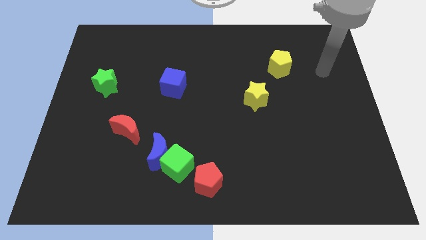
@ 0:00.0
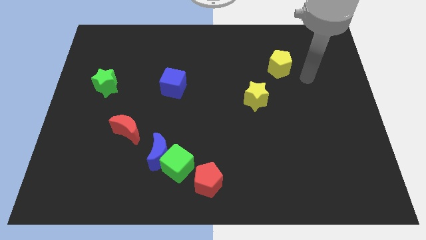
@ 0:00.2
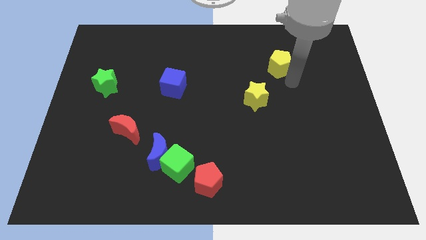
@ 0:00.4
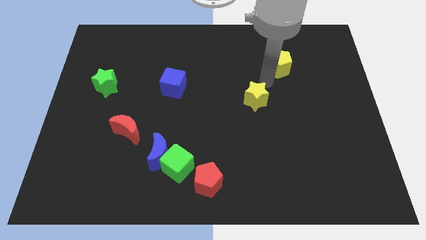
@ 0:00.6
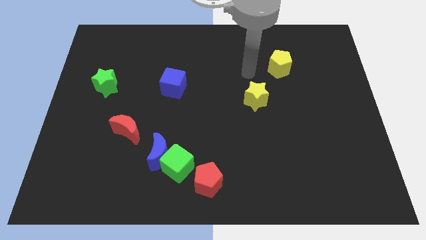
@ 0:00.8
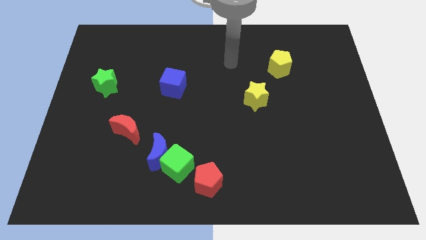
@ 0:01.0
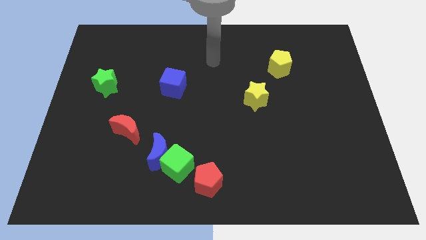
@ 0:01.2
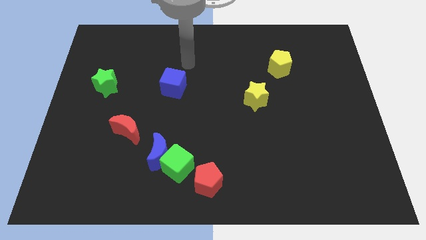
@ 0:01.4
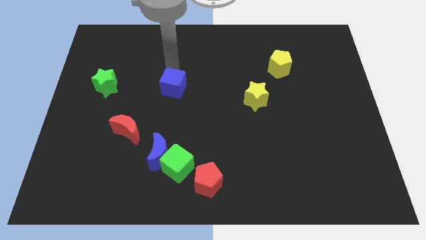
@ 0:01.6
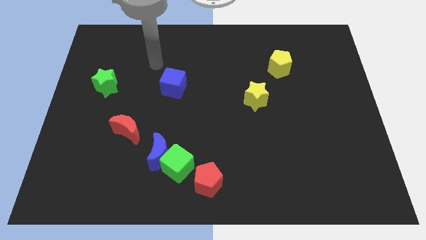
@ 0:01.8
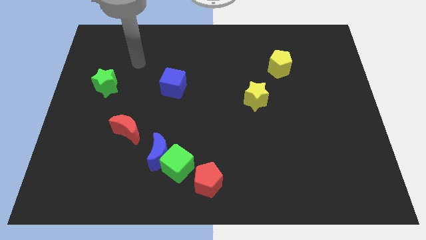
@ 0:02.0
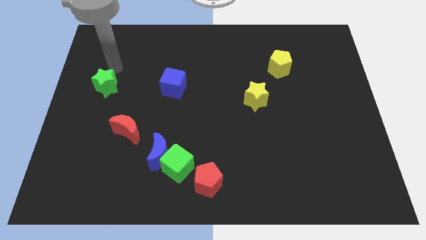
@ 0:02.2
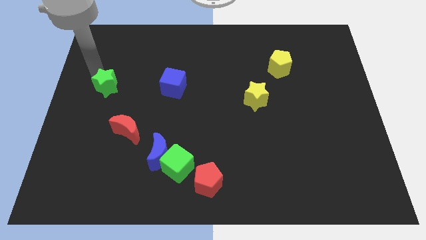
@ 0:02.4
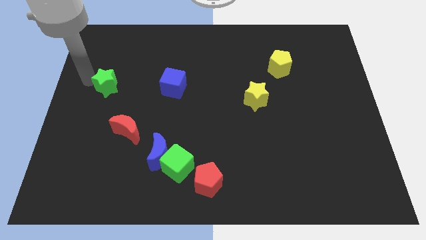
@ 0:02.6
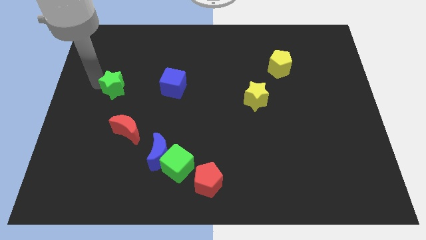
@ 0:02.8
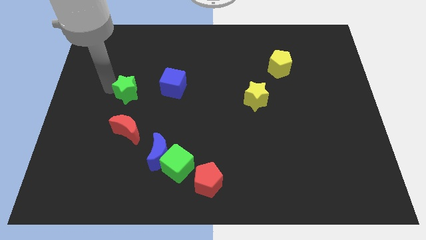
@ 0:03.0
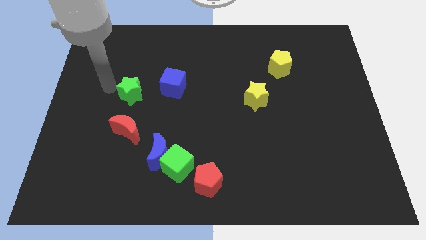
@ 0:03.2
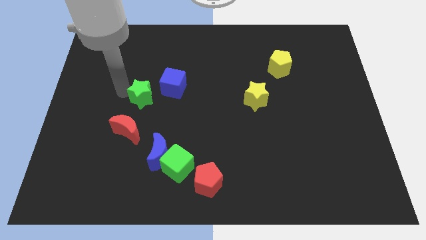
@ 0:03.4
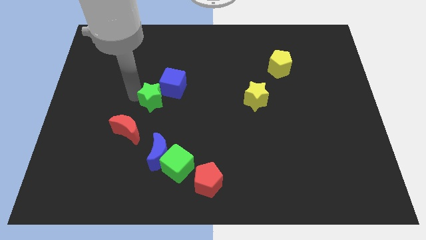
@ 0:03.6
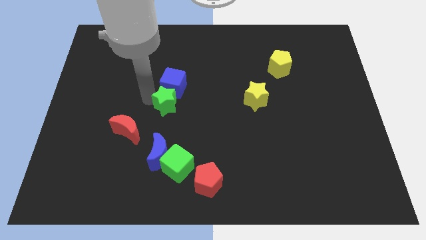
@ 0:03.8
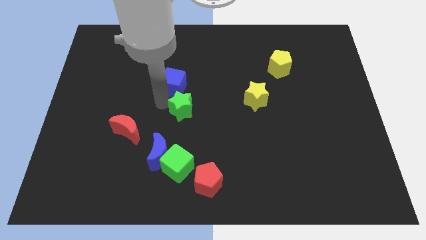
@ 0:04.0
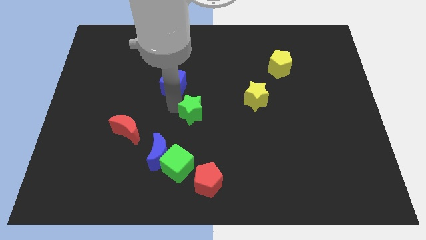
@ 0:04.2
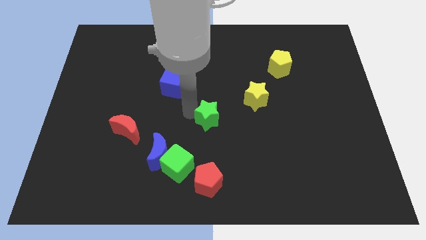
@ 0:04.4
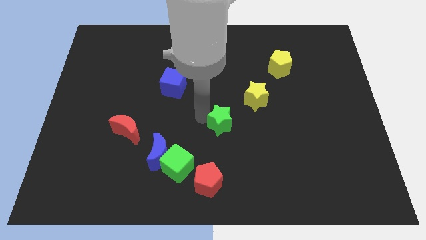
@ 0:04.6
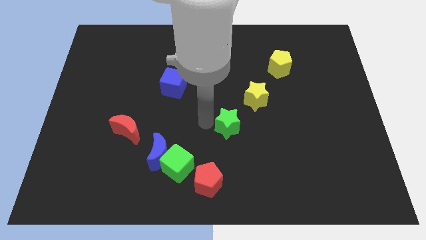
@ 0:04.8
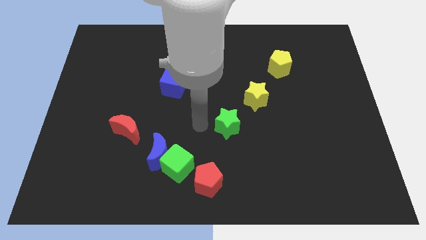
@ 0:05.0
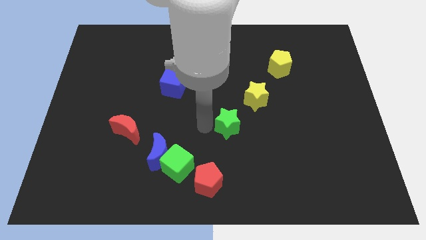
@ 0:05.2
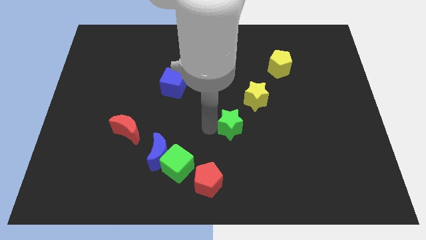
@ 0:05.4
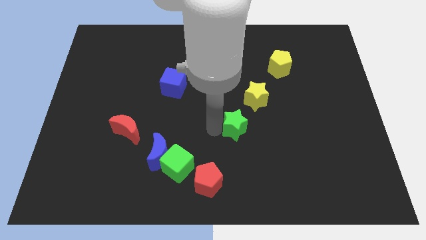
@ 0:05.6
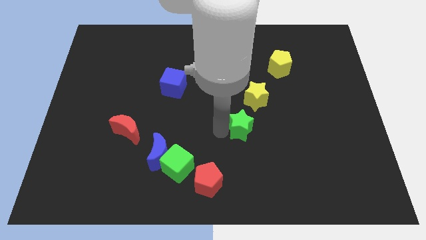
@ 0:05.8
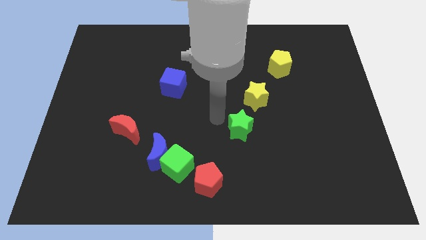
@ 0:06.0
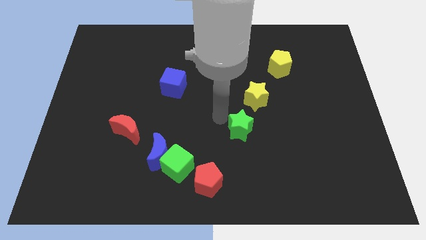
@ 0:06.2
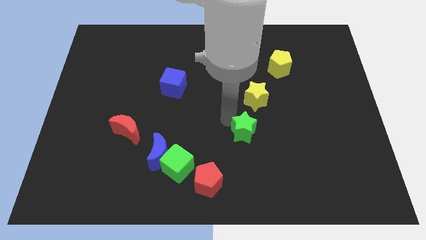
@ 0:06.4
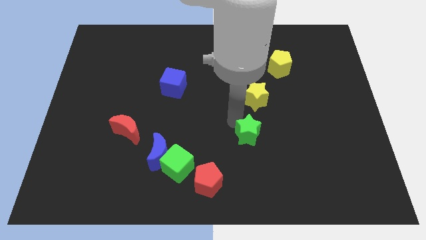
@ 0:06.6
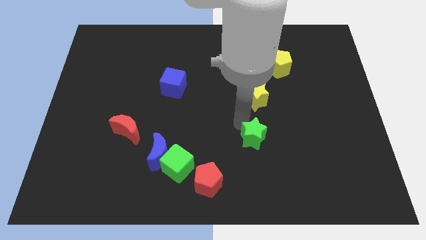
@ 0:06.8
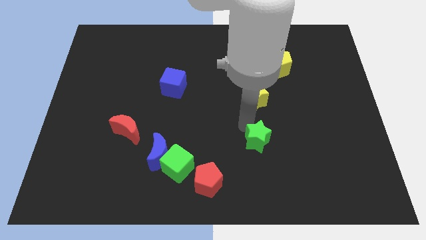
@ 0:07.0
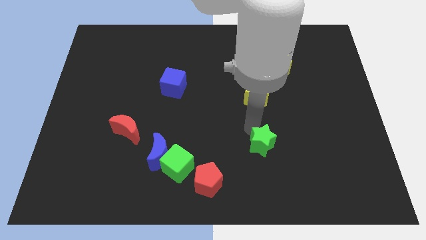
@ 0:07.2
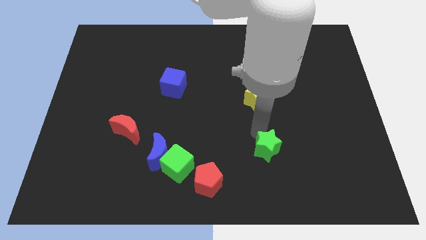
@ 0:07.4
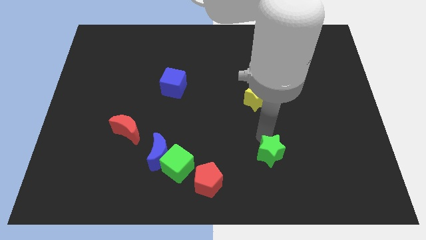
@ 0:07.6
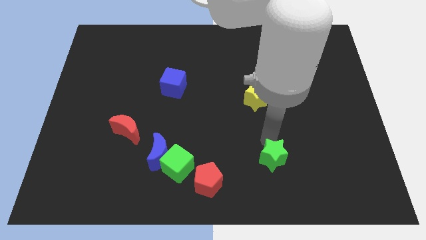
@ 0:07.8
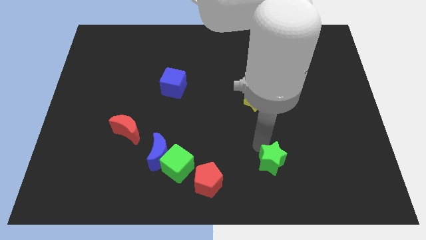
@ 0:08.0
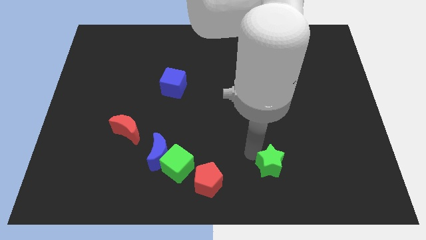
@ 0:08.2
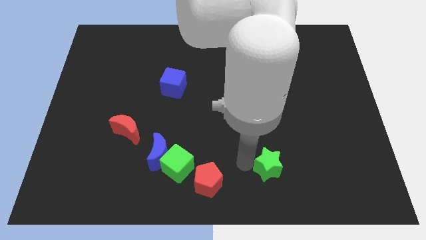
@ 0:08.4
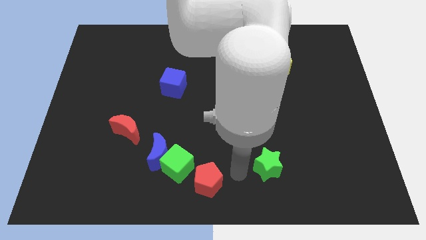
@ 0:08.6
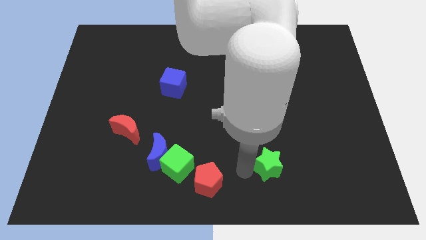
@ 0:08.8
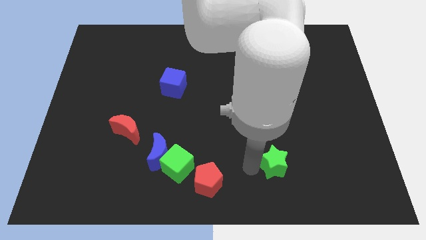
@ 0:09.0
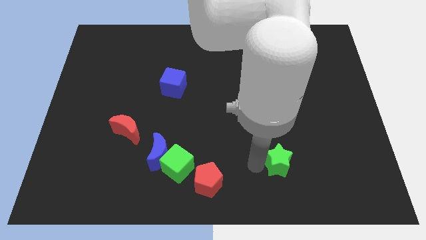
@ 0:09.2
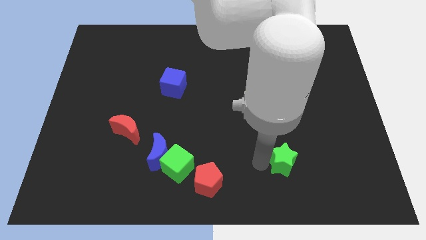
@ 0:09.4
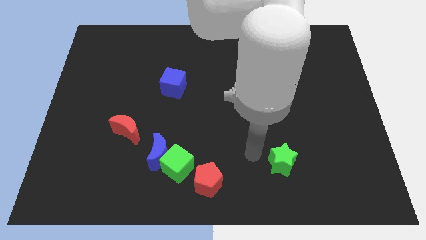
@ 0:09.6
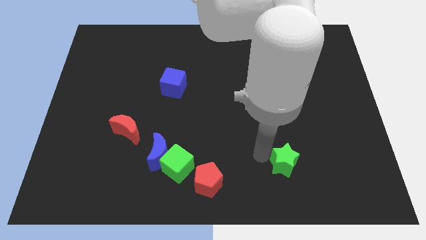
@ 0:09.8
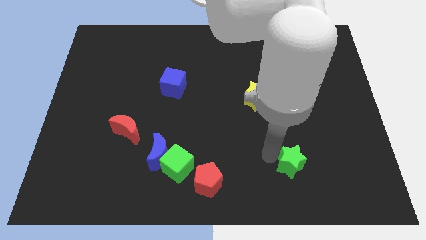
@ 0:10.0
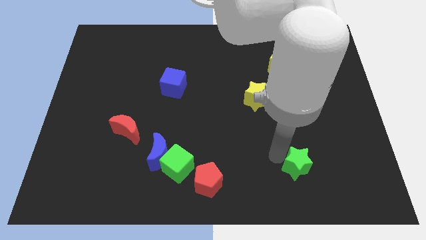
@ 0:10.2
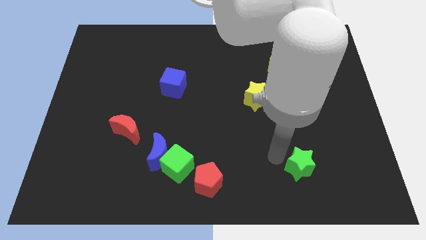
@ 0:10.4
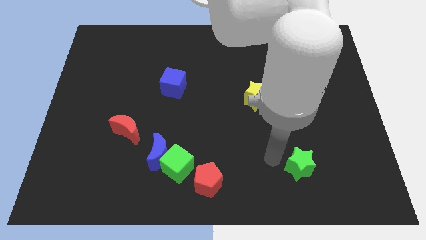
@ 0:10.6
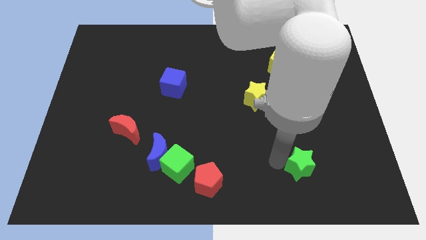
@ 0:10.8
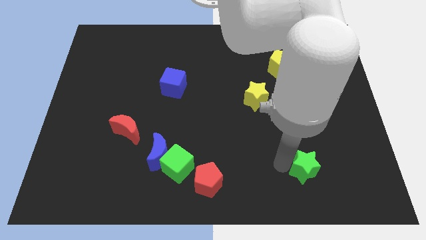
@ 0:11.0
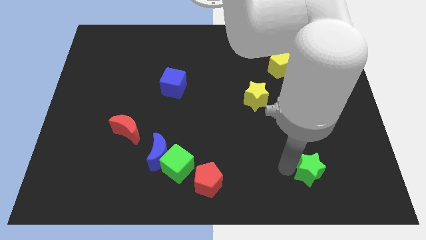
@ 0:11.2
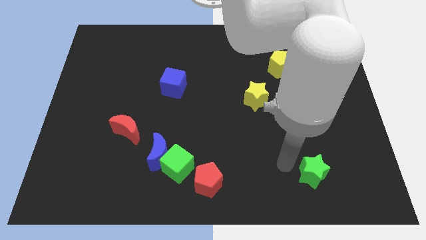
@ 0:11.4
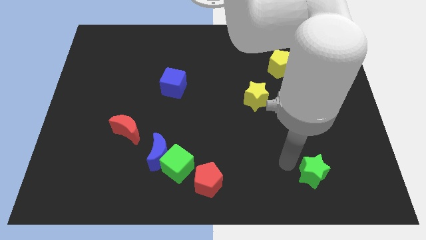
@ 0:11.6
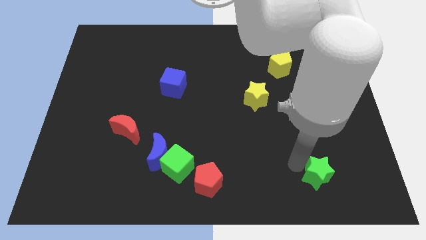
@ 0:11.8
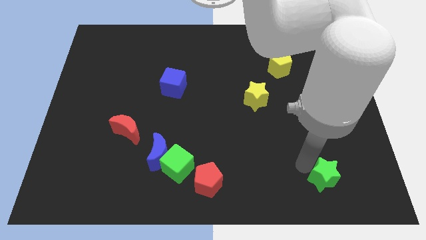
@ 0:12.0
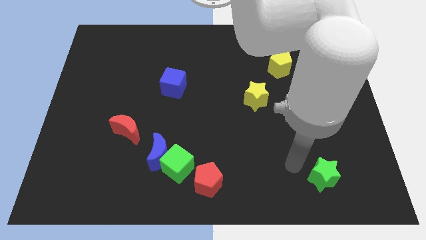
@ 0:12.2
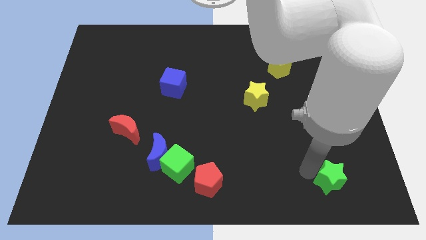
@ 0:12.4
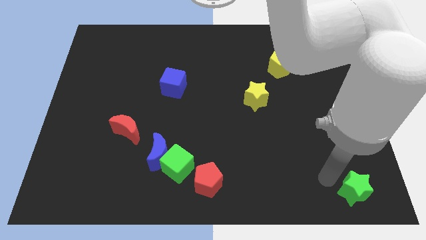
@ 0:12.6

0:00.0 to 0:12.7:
put the green star to the bottom right of the board

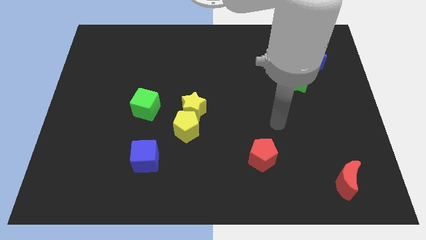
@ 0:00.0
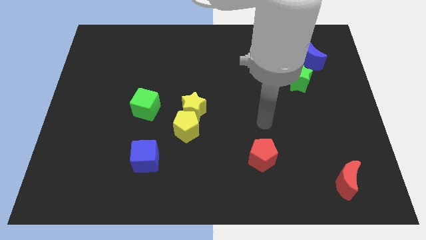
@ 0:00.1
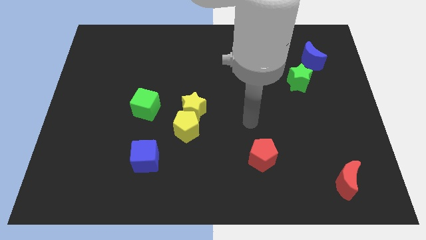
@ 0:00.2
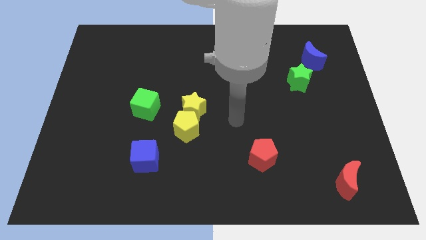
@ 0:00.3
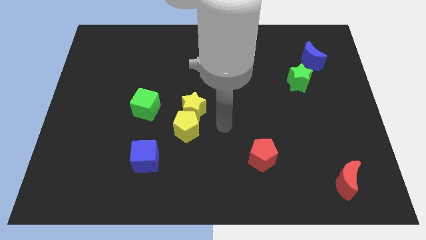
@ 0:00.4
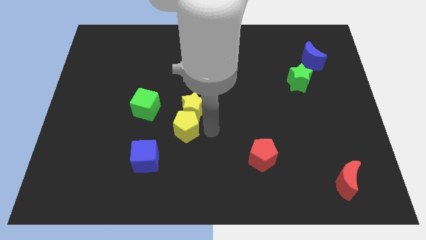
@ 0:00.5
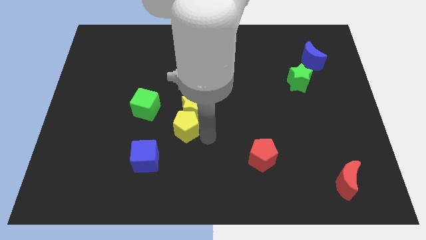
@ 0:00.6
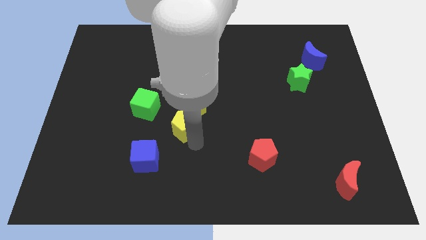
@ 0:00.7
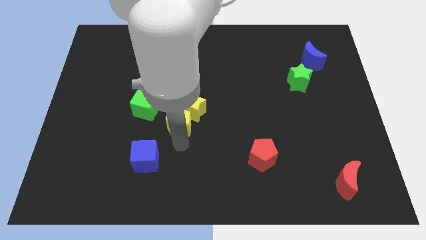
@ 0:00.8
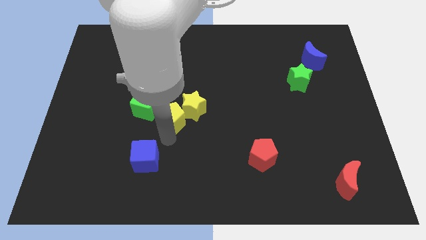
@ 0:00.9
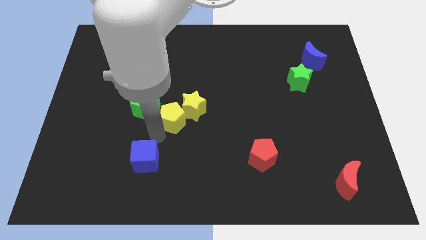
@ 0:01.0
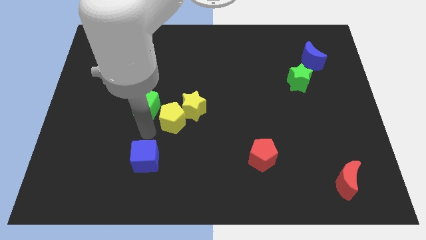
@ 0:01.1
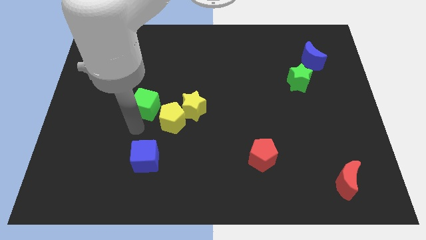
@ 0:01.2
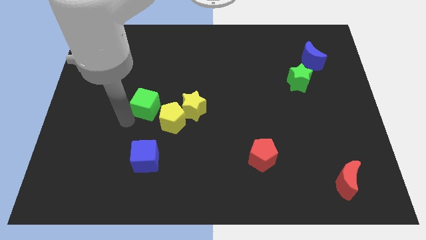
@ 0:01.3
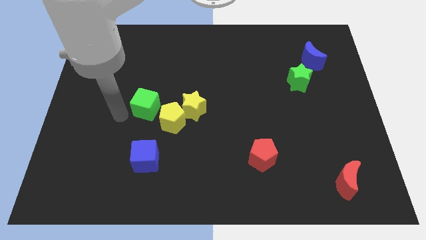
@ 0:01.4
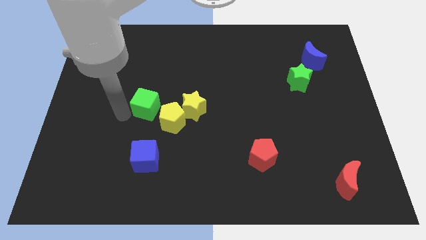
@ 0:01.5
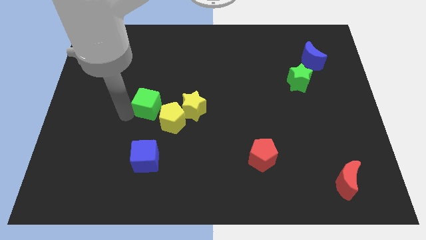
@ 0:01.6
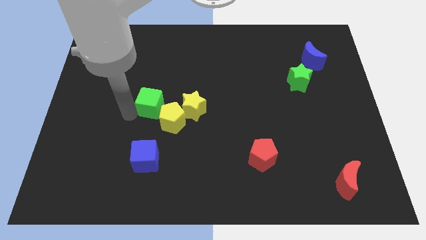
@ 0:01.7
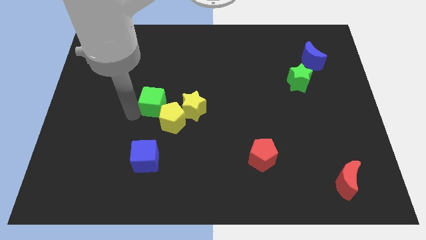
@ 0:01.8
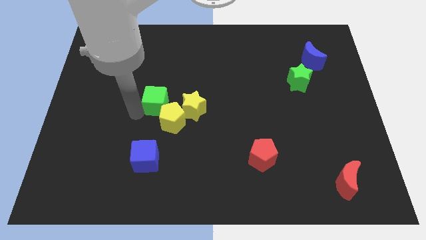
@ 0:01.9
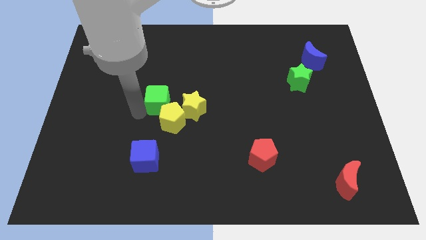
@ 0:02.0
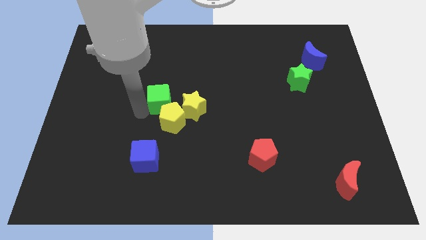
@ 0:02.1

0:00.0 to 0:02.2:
move the green cube to the center of the board
